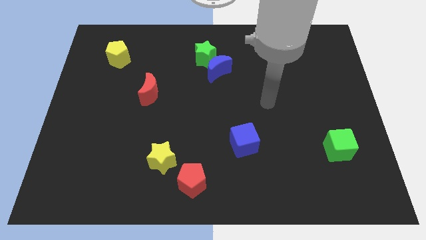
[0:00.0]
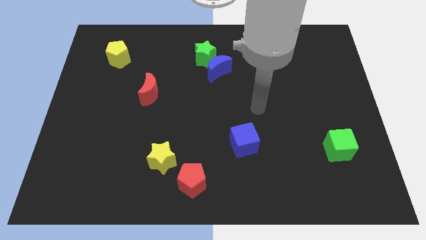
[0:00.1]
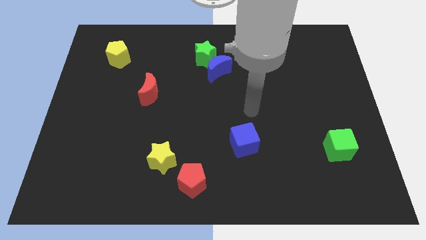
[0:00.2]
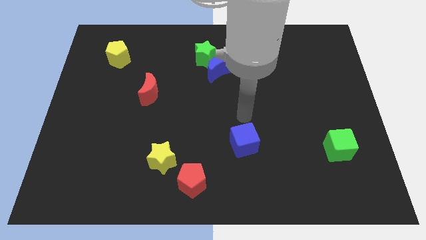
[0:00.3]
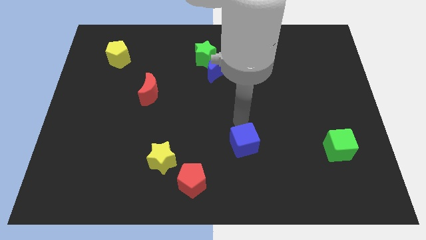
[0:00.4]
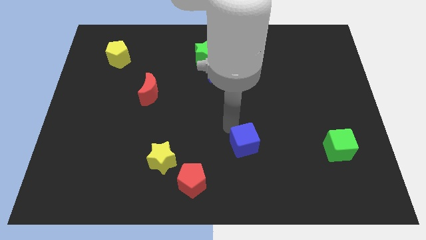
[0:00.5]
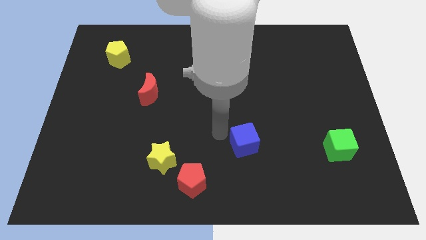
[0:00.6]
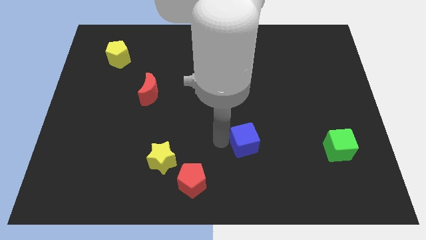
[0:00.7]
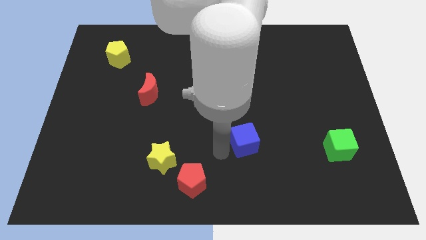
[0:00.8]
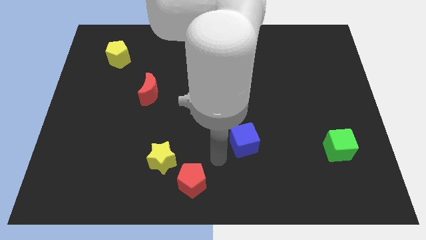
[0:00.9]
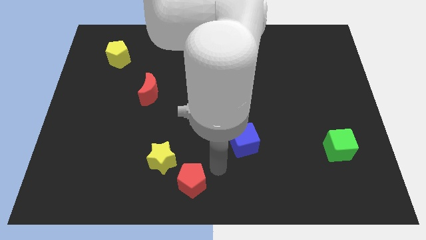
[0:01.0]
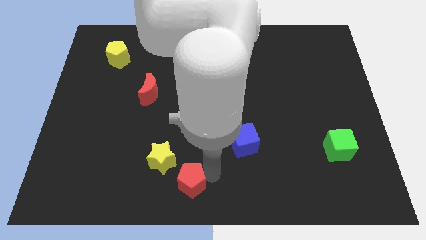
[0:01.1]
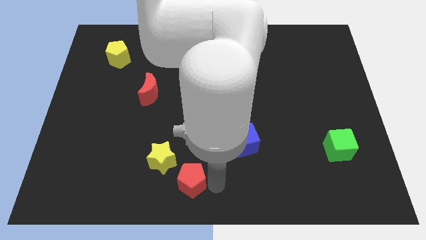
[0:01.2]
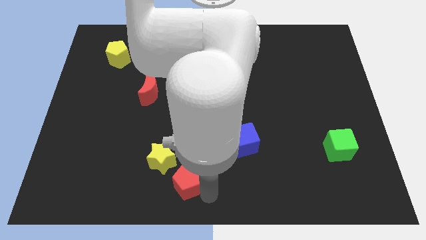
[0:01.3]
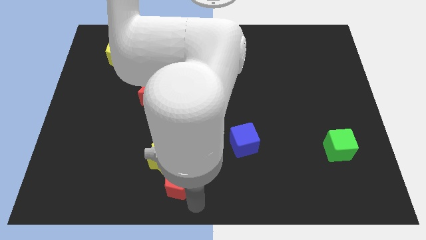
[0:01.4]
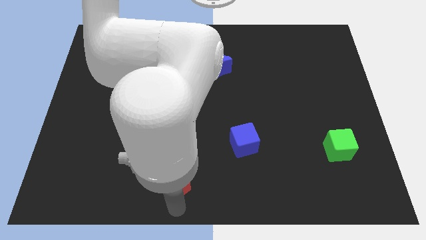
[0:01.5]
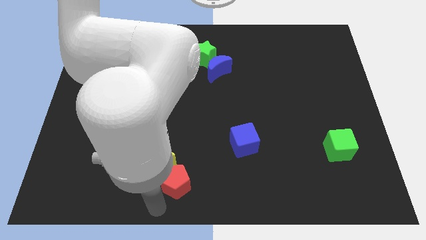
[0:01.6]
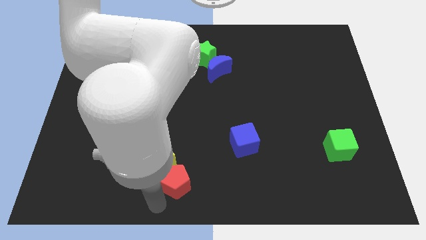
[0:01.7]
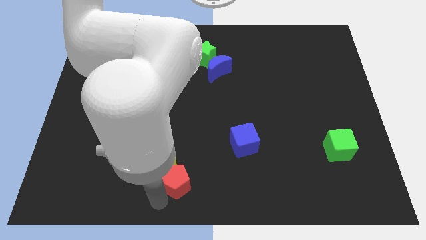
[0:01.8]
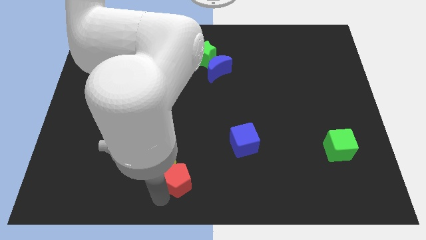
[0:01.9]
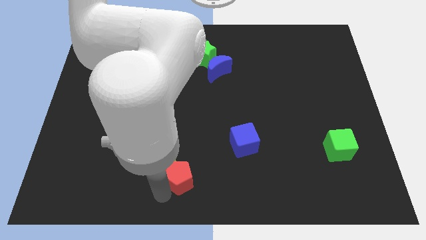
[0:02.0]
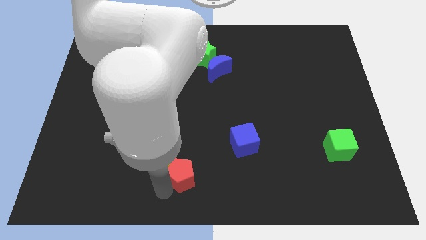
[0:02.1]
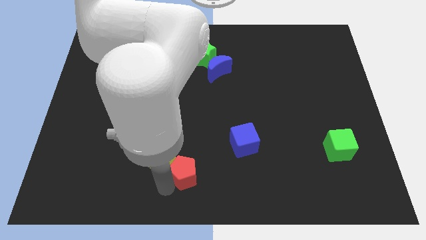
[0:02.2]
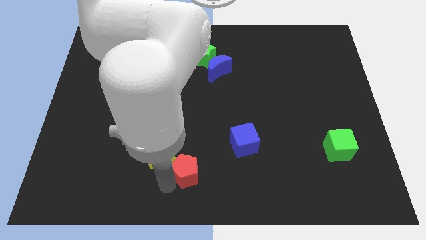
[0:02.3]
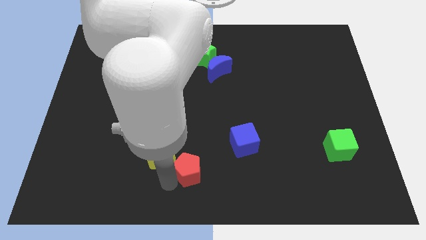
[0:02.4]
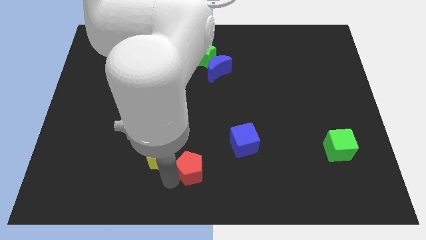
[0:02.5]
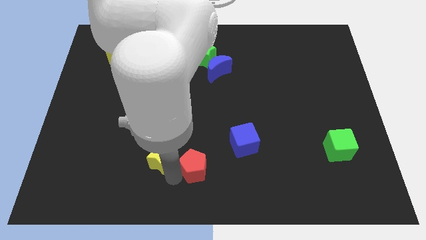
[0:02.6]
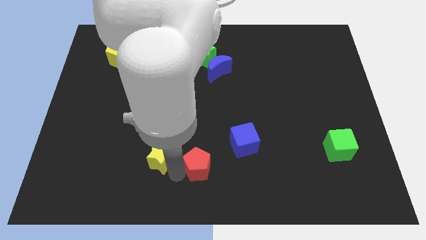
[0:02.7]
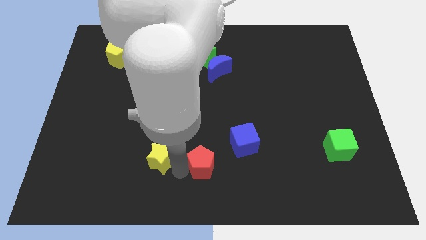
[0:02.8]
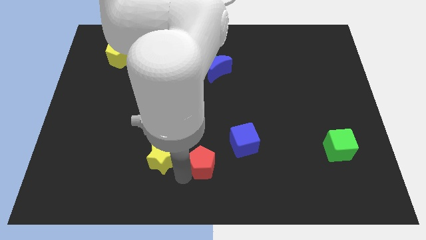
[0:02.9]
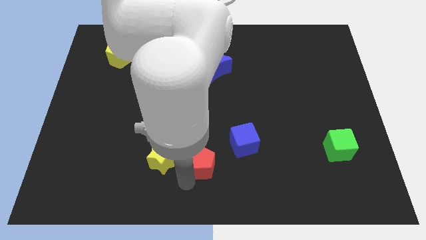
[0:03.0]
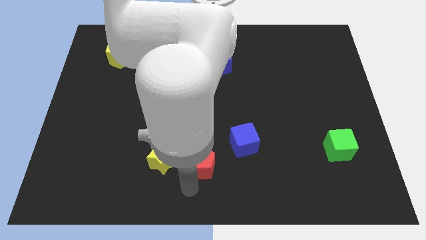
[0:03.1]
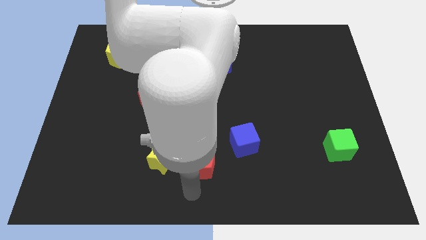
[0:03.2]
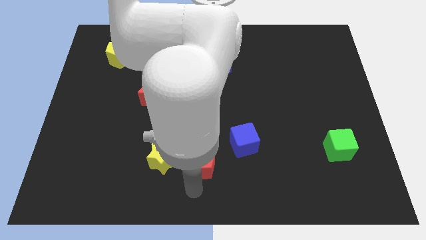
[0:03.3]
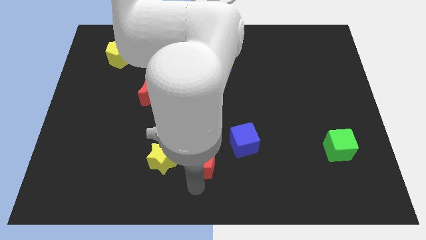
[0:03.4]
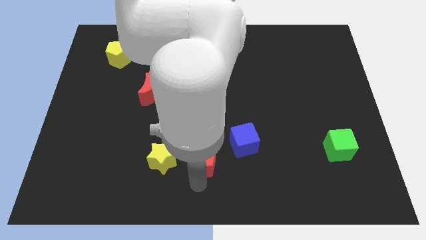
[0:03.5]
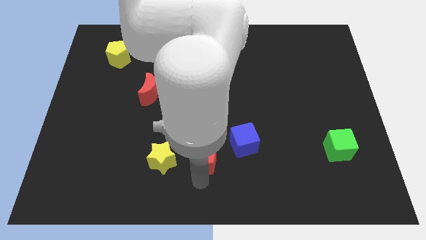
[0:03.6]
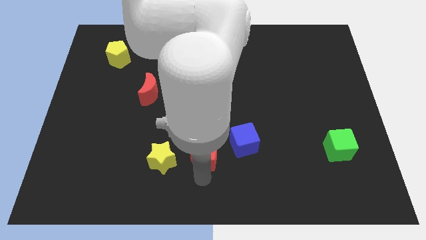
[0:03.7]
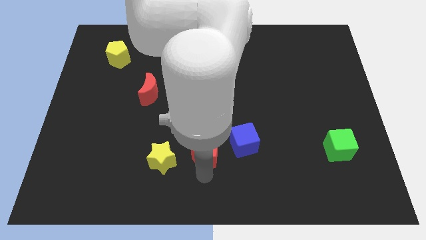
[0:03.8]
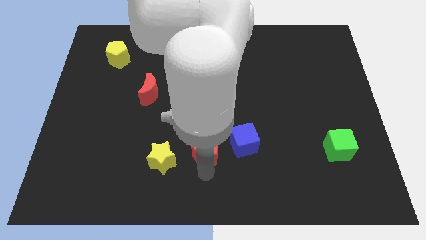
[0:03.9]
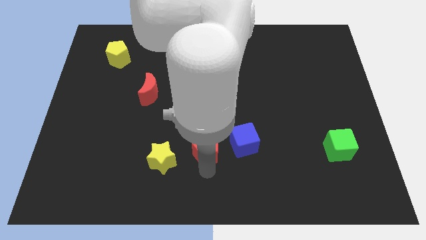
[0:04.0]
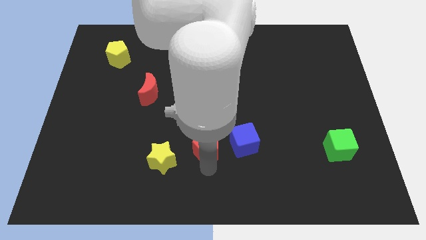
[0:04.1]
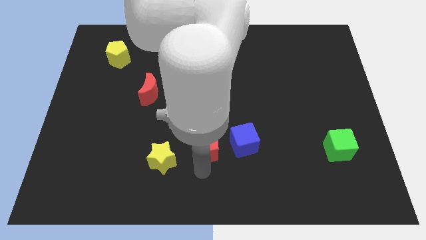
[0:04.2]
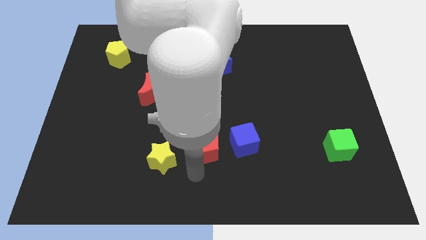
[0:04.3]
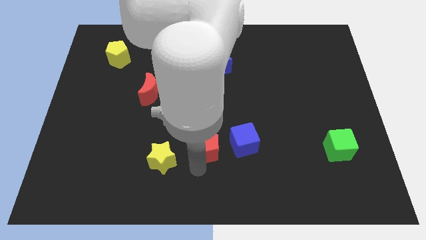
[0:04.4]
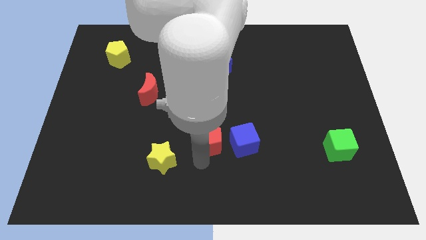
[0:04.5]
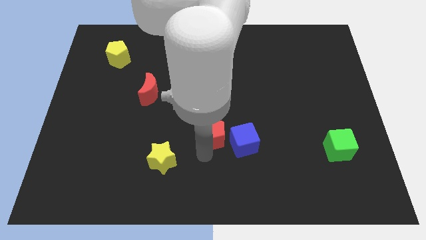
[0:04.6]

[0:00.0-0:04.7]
slide the red pentagon to the top left of the blue cube

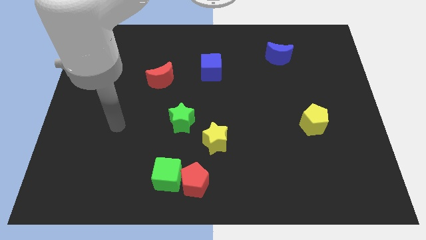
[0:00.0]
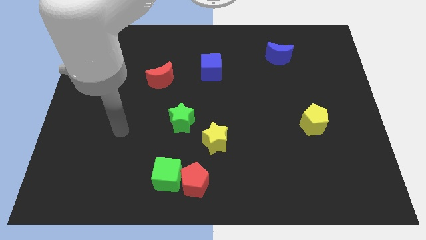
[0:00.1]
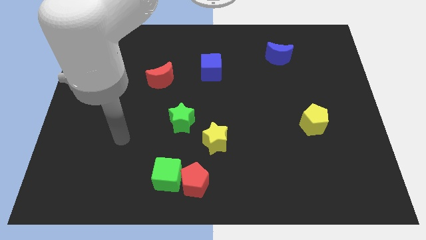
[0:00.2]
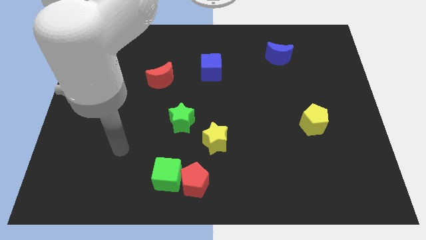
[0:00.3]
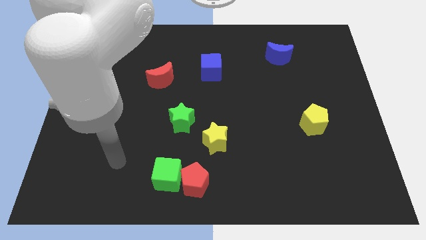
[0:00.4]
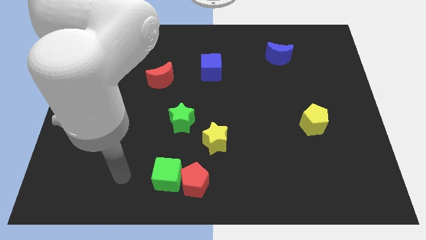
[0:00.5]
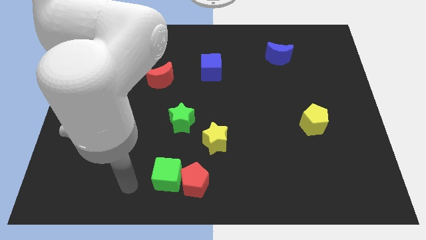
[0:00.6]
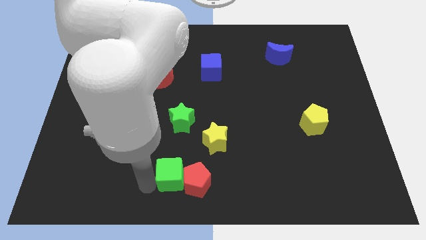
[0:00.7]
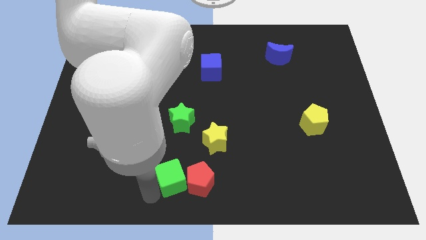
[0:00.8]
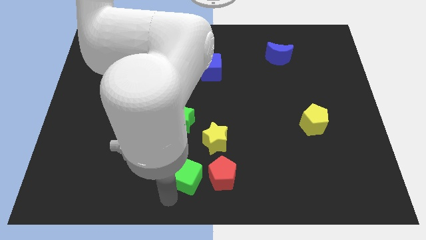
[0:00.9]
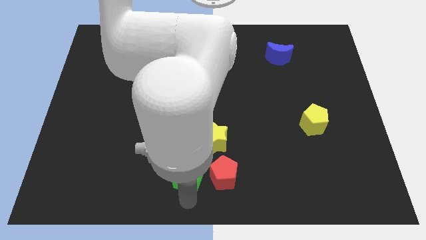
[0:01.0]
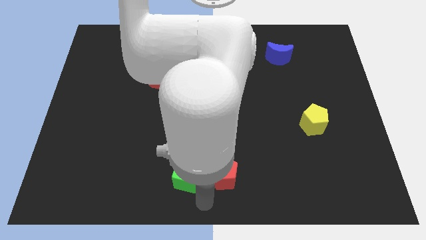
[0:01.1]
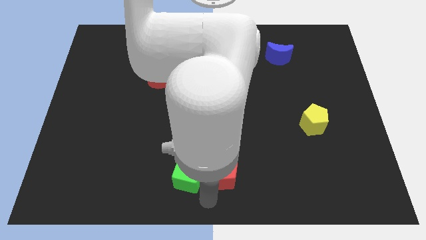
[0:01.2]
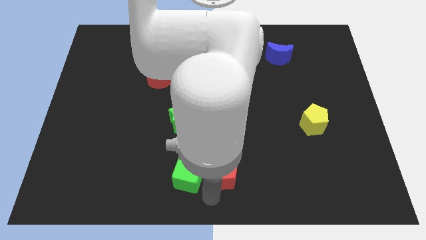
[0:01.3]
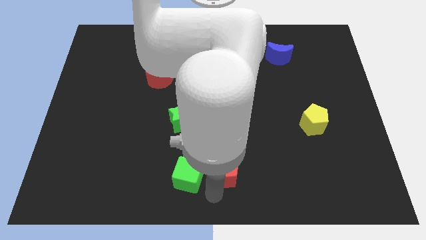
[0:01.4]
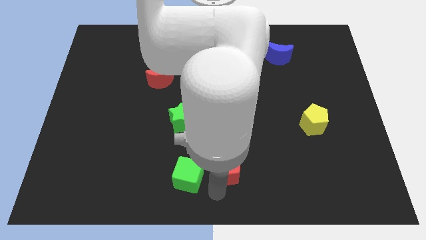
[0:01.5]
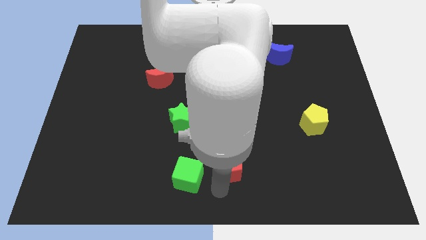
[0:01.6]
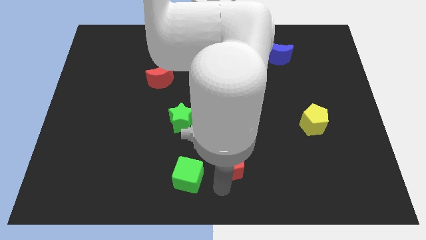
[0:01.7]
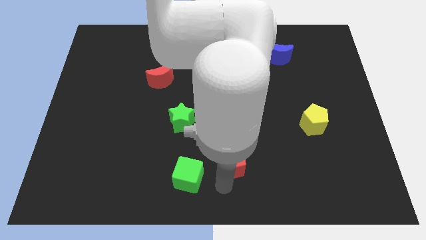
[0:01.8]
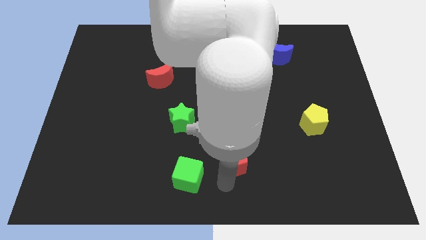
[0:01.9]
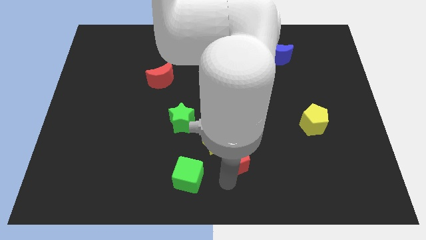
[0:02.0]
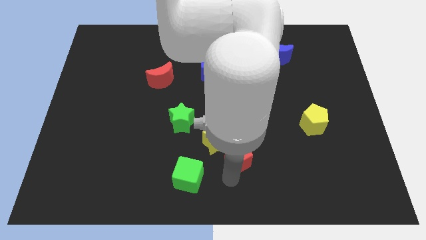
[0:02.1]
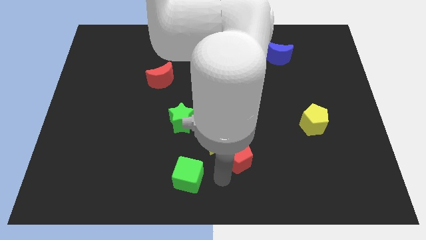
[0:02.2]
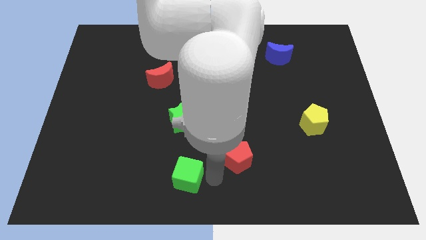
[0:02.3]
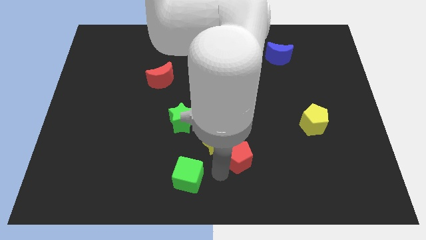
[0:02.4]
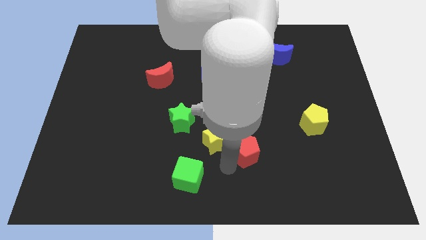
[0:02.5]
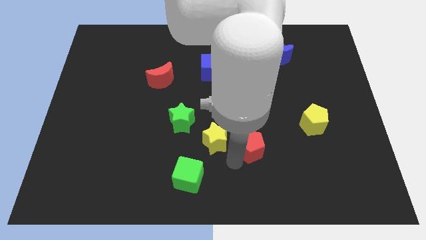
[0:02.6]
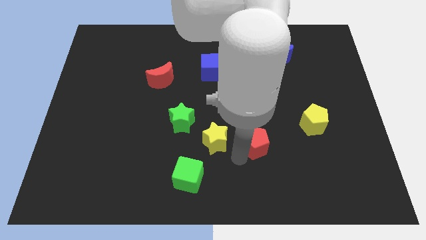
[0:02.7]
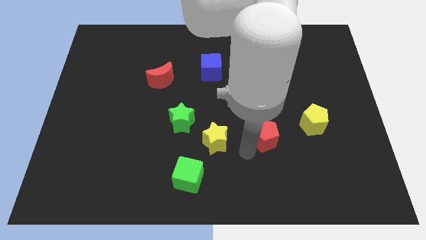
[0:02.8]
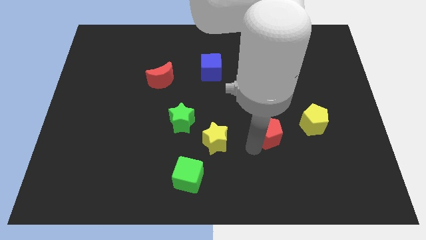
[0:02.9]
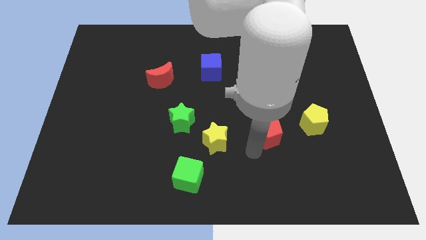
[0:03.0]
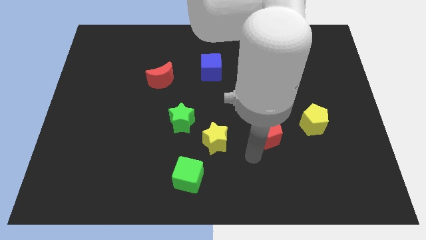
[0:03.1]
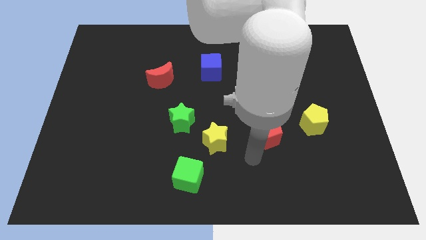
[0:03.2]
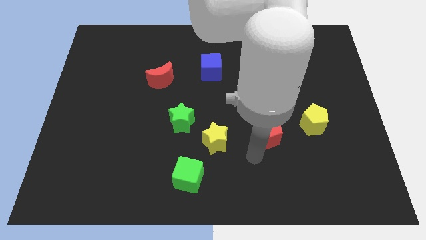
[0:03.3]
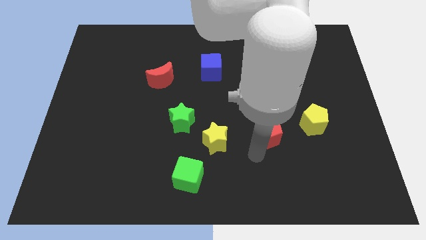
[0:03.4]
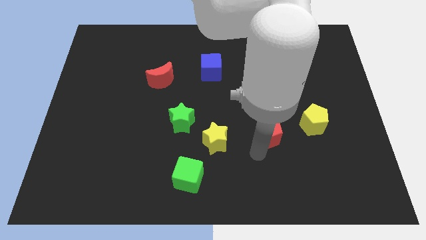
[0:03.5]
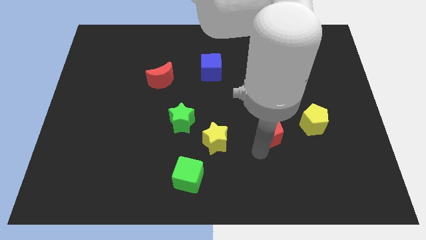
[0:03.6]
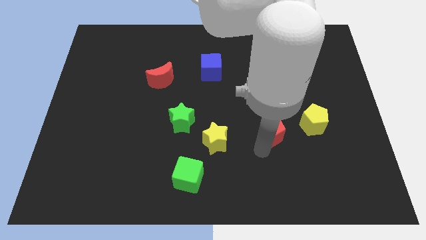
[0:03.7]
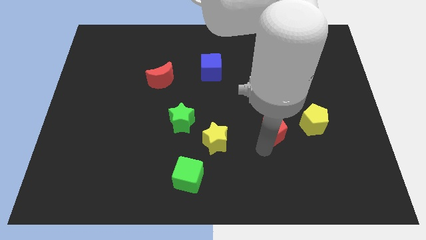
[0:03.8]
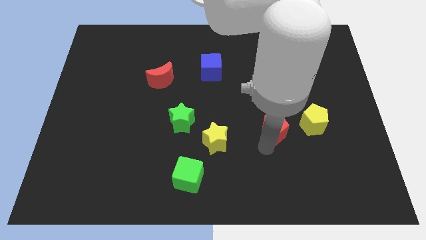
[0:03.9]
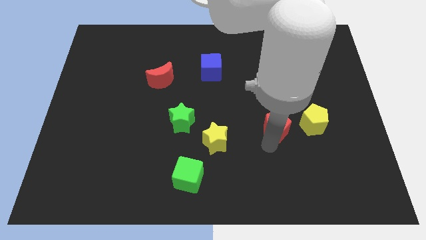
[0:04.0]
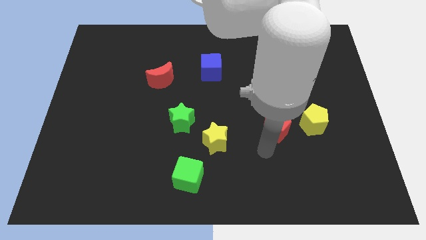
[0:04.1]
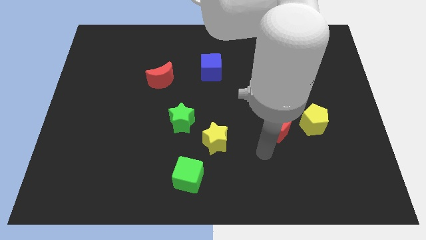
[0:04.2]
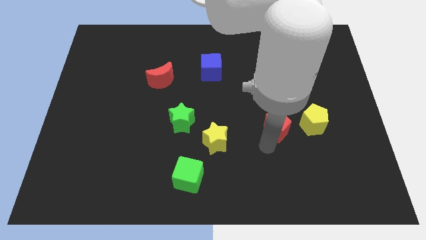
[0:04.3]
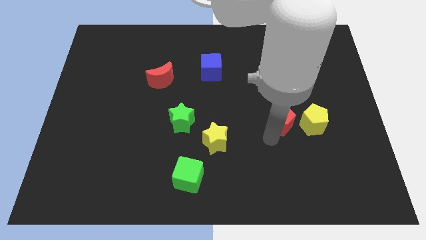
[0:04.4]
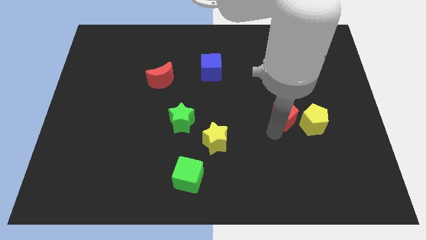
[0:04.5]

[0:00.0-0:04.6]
push the red pentagon to the top left side of the yellow pentagon
